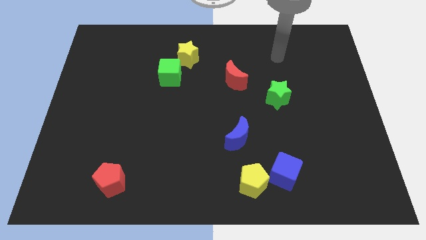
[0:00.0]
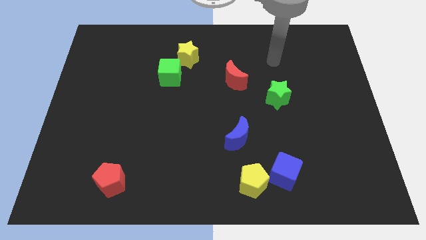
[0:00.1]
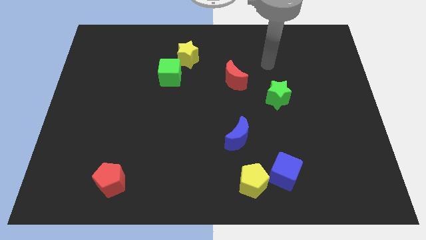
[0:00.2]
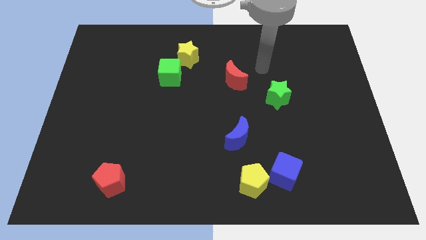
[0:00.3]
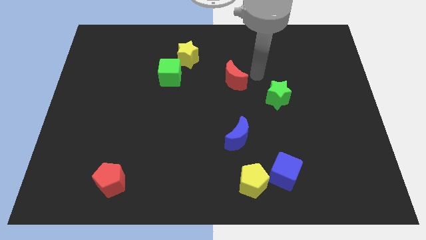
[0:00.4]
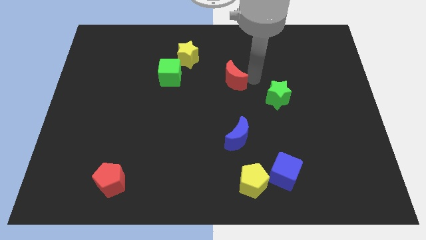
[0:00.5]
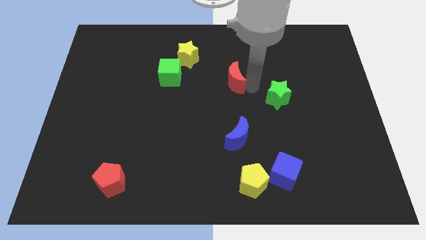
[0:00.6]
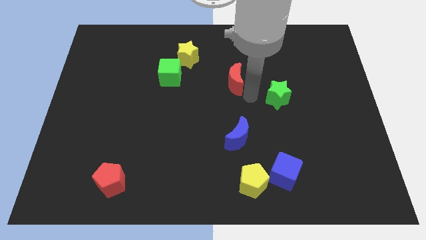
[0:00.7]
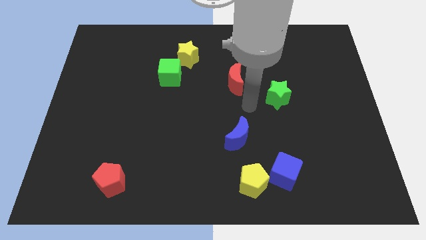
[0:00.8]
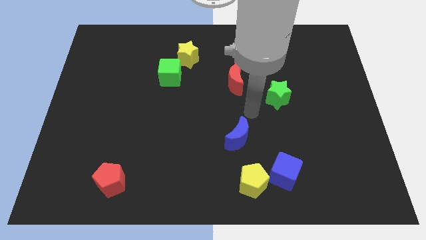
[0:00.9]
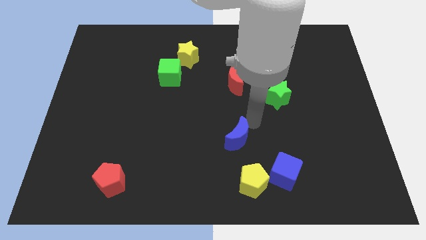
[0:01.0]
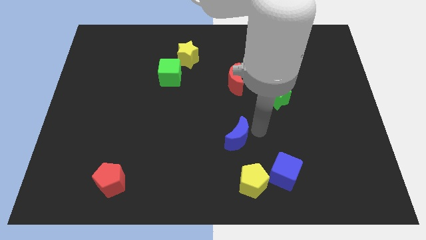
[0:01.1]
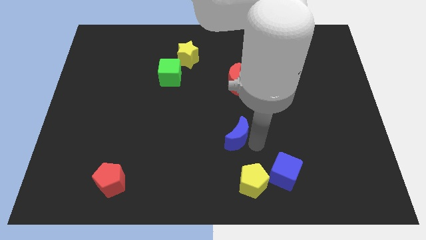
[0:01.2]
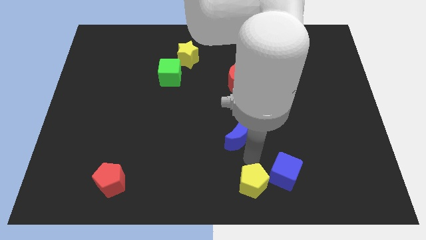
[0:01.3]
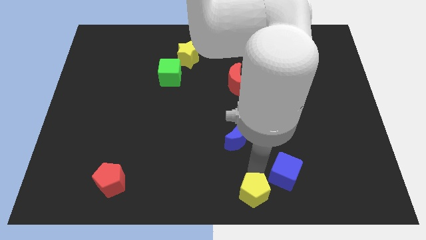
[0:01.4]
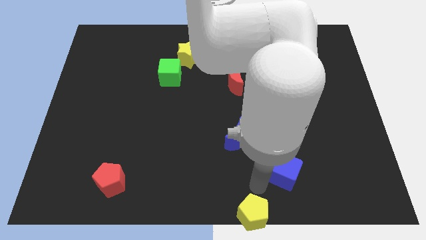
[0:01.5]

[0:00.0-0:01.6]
separate the blue cube from the yellow pentagon

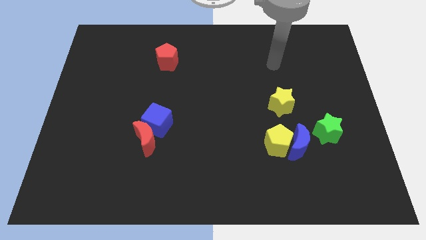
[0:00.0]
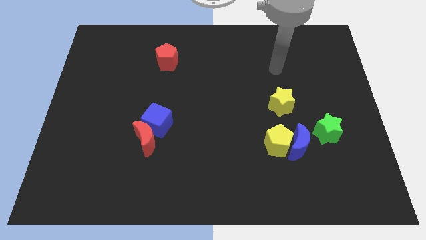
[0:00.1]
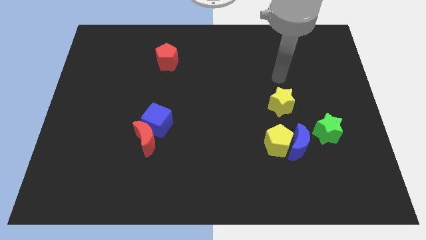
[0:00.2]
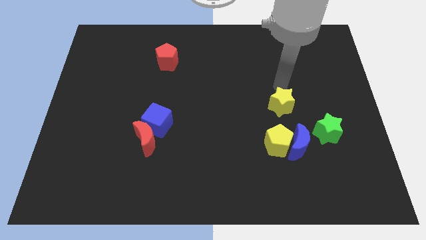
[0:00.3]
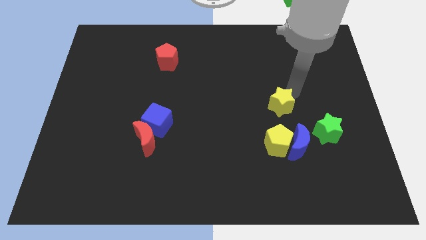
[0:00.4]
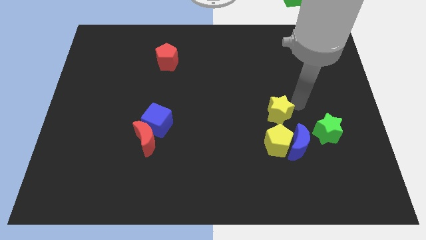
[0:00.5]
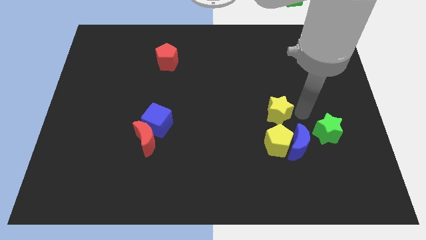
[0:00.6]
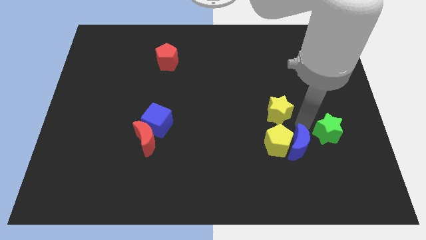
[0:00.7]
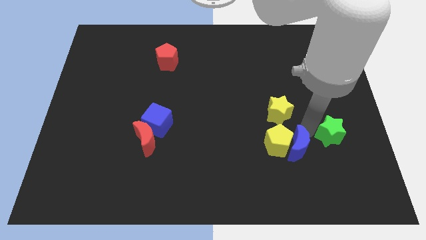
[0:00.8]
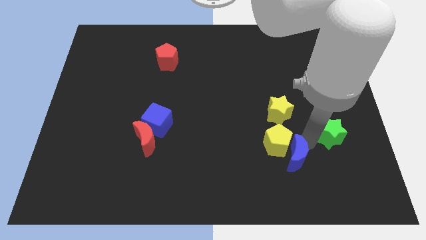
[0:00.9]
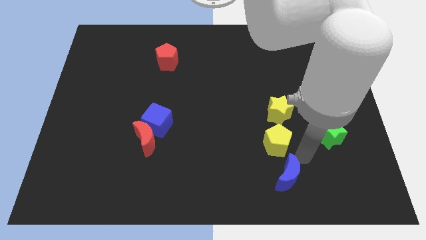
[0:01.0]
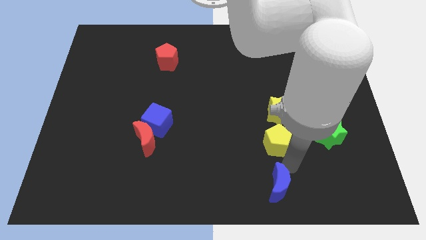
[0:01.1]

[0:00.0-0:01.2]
separate the yellow pentagon from the blue moon

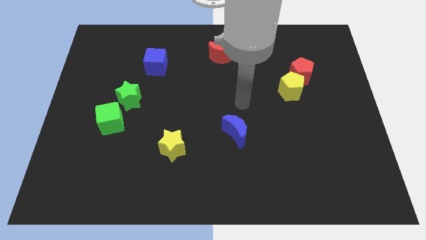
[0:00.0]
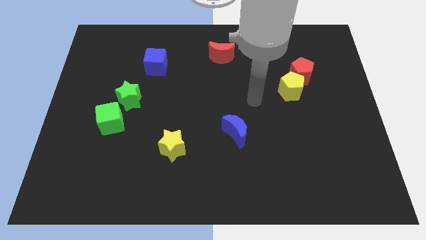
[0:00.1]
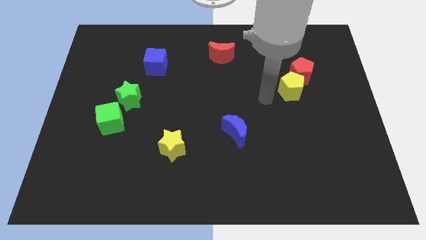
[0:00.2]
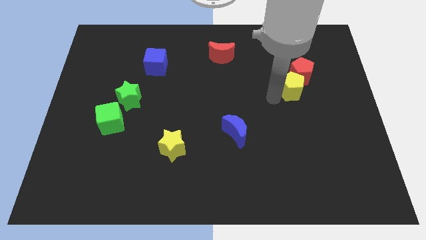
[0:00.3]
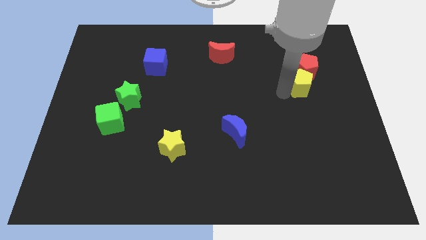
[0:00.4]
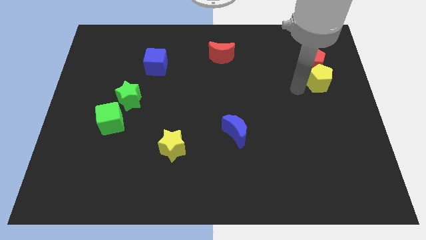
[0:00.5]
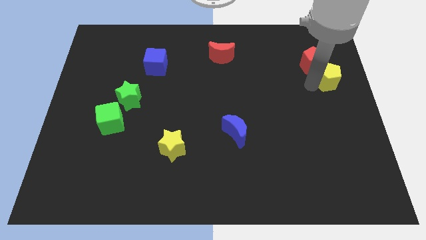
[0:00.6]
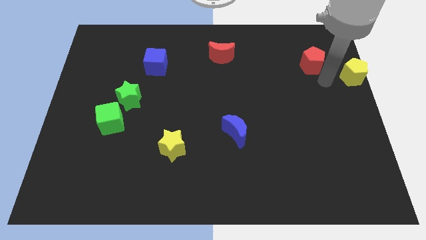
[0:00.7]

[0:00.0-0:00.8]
separate the red pentagon from the yellow pentagon

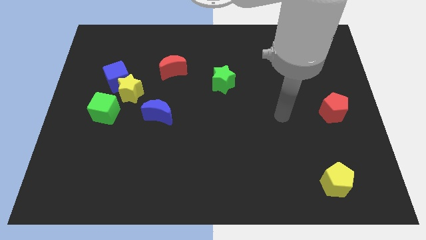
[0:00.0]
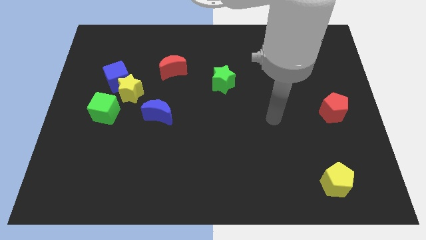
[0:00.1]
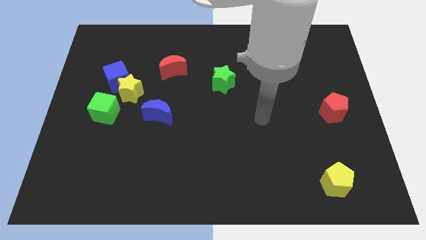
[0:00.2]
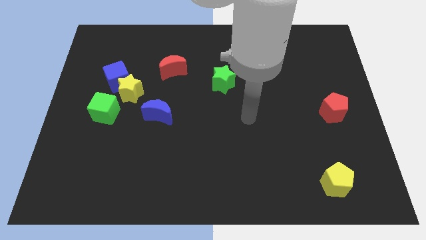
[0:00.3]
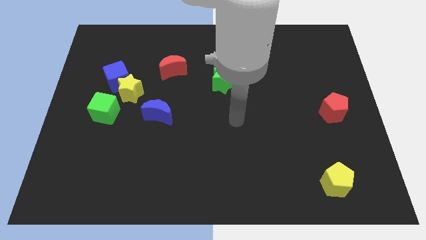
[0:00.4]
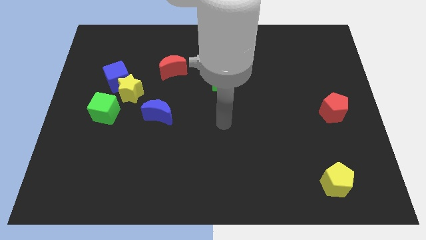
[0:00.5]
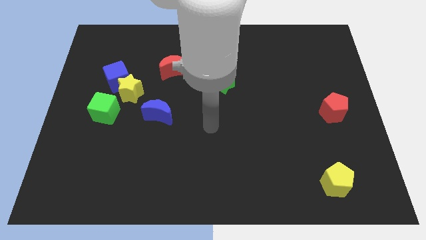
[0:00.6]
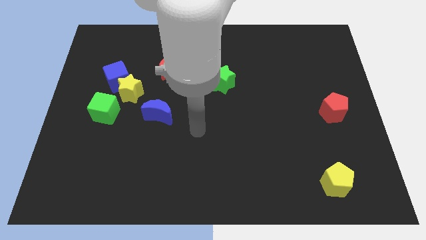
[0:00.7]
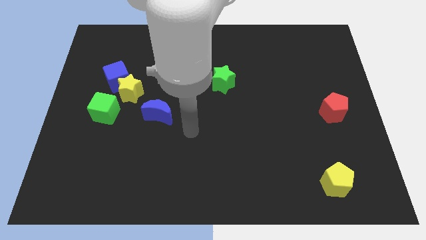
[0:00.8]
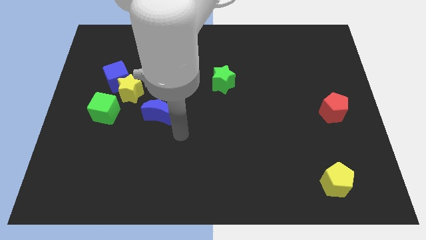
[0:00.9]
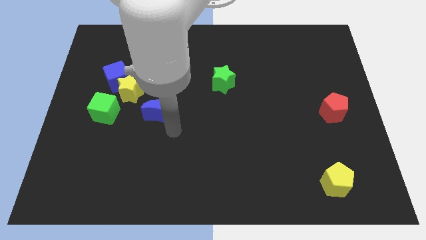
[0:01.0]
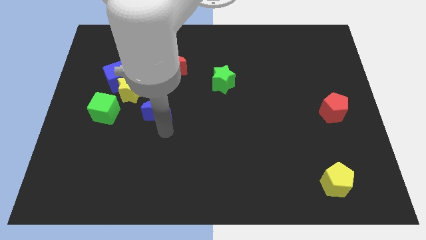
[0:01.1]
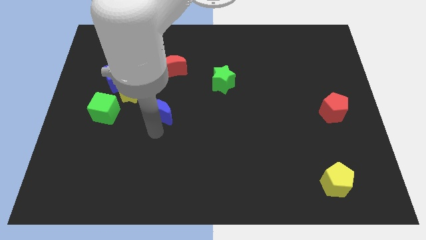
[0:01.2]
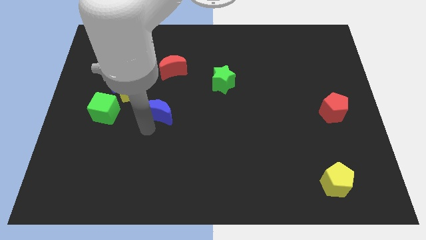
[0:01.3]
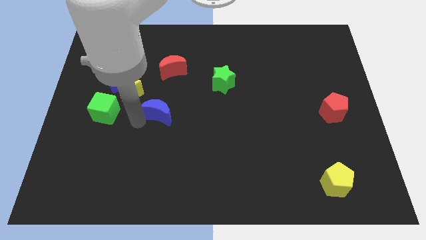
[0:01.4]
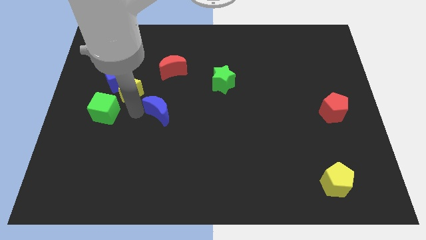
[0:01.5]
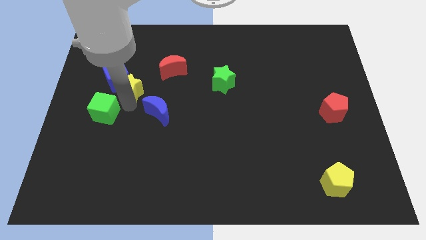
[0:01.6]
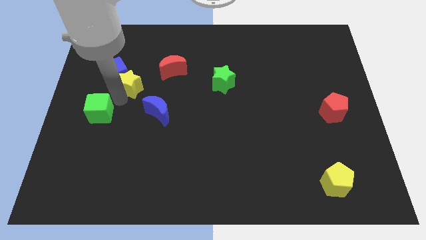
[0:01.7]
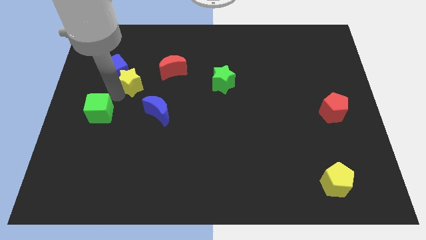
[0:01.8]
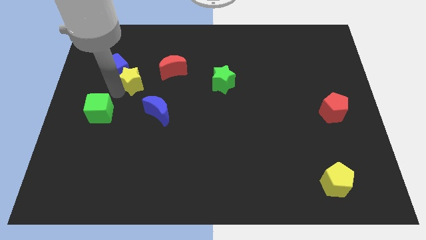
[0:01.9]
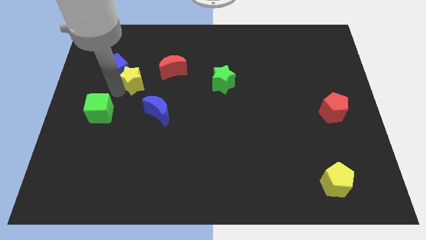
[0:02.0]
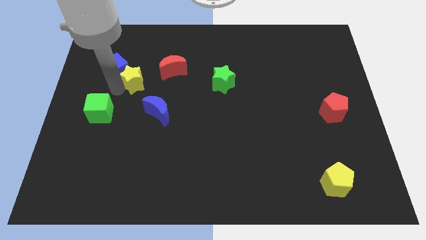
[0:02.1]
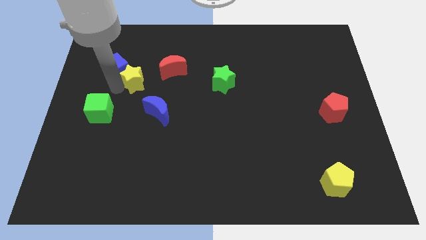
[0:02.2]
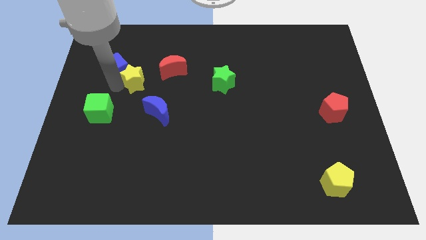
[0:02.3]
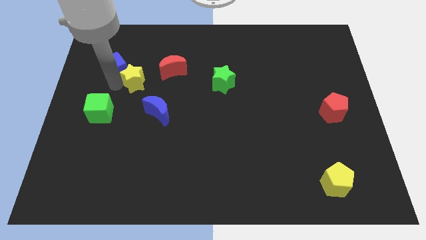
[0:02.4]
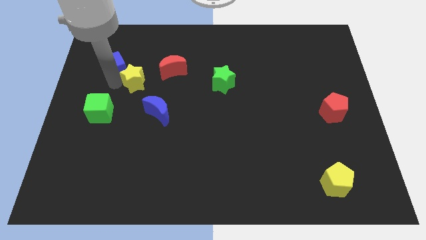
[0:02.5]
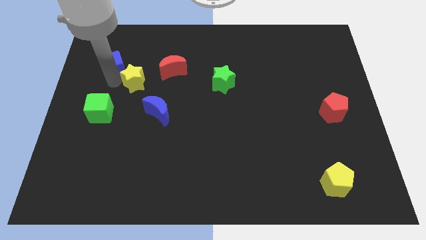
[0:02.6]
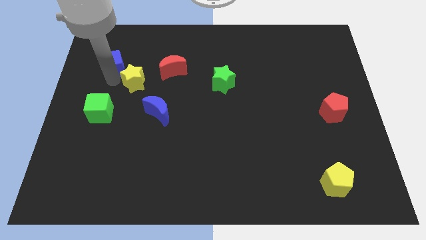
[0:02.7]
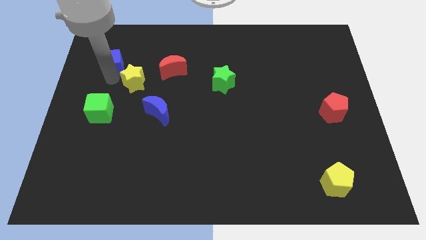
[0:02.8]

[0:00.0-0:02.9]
move the blue cube away from the yellow star and green cube

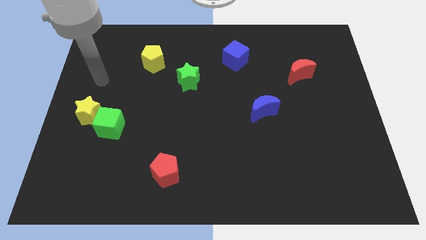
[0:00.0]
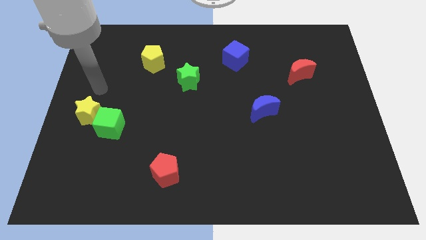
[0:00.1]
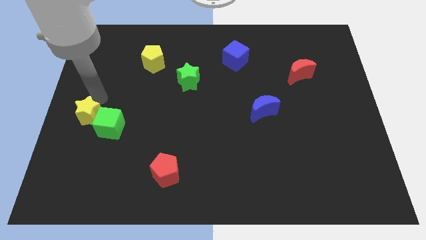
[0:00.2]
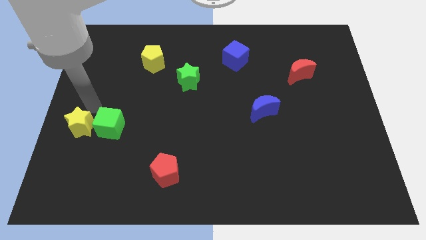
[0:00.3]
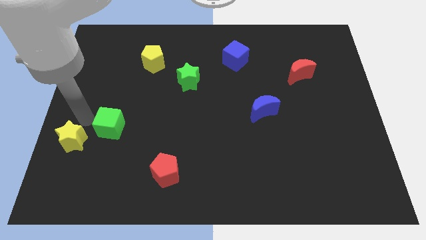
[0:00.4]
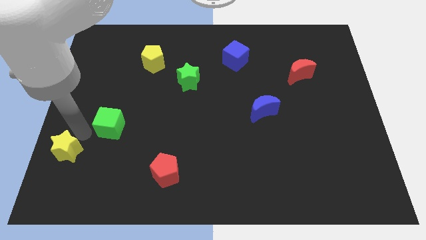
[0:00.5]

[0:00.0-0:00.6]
move the green cube away from the yellow star

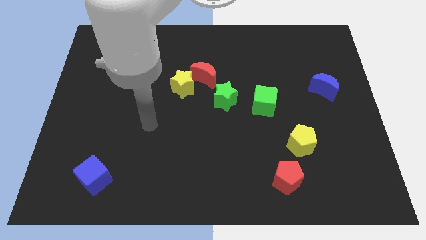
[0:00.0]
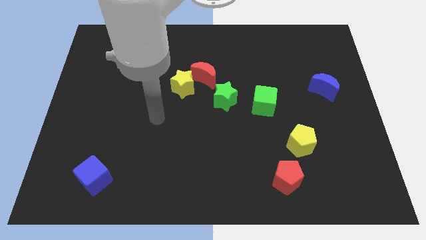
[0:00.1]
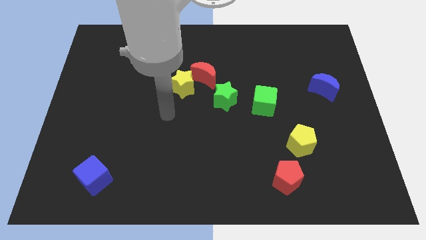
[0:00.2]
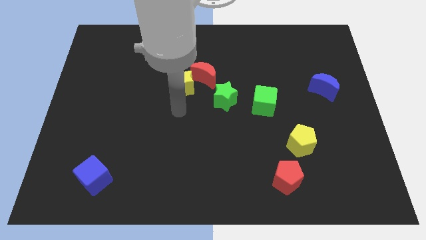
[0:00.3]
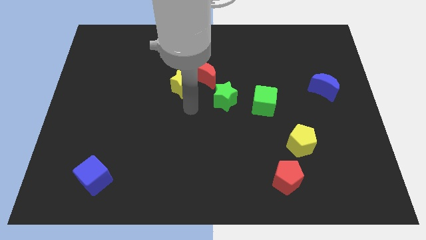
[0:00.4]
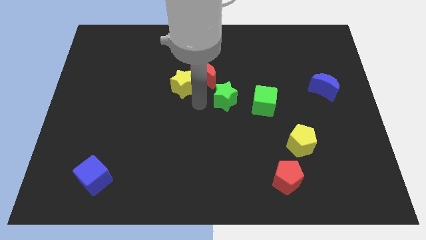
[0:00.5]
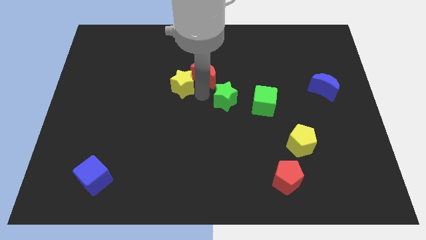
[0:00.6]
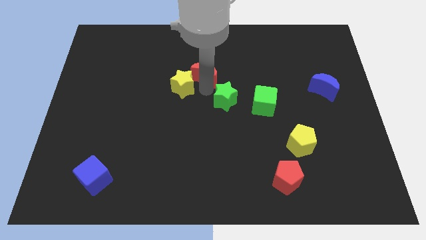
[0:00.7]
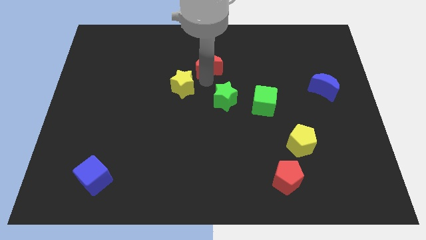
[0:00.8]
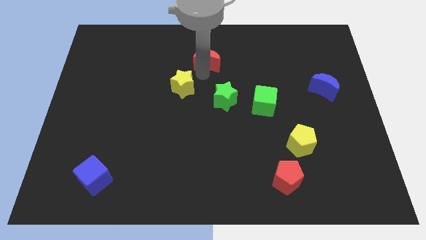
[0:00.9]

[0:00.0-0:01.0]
move the yellow star away from the red moon

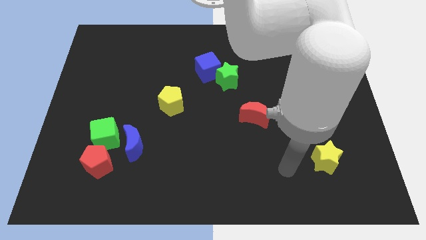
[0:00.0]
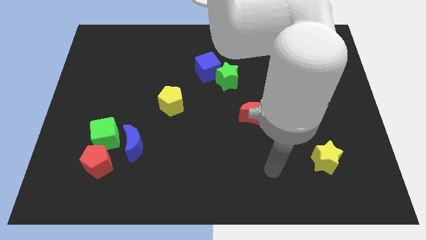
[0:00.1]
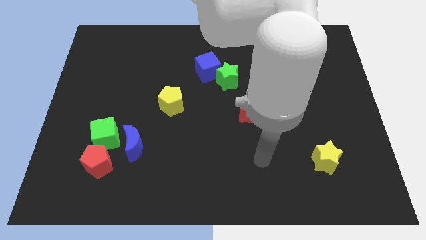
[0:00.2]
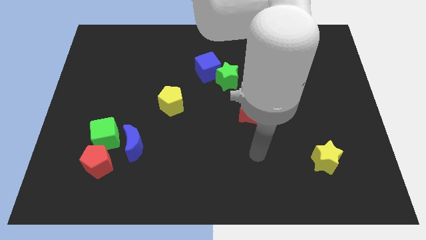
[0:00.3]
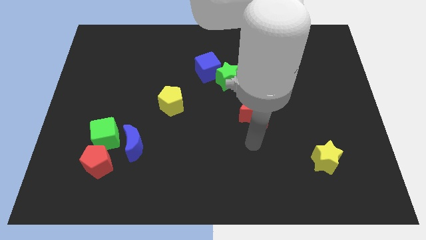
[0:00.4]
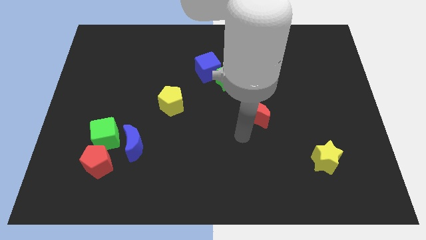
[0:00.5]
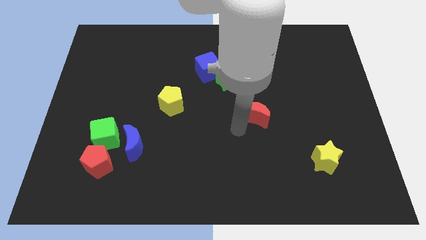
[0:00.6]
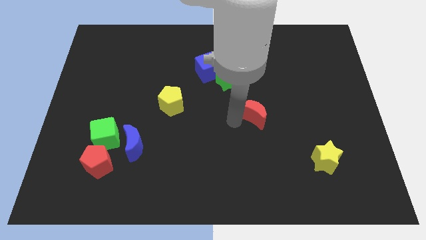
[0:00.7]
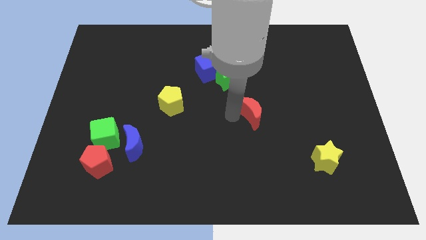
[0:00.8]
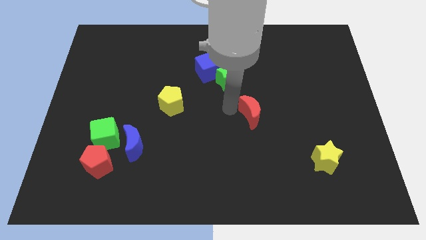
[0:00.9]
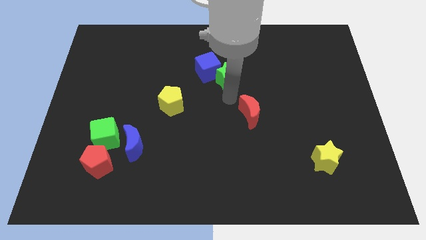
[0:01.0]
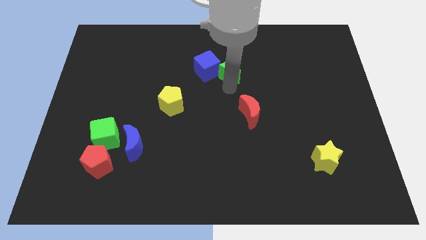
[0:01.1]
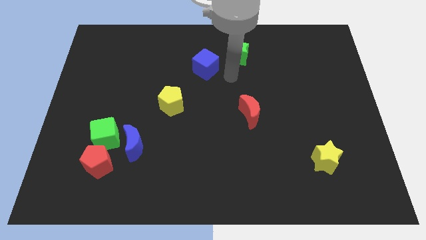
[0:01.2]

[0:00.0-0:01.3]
separate the blue cube from the green star
